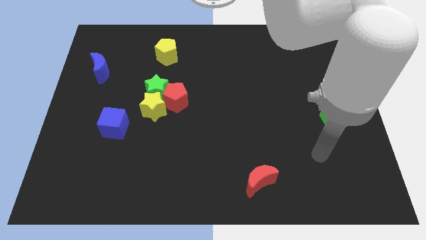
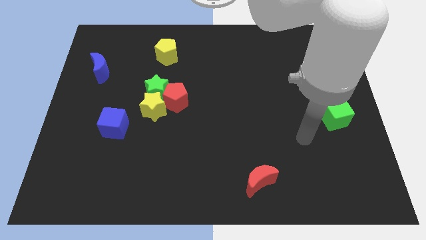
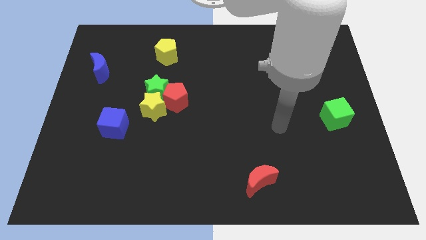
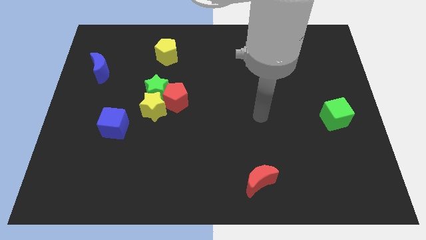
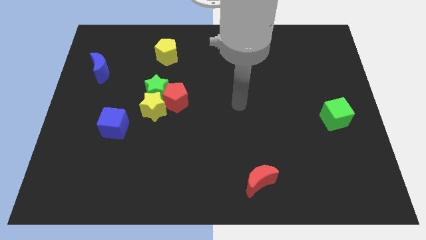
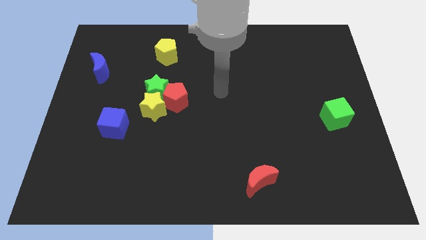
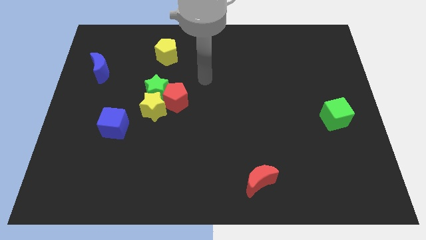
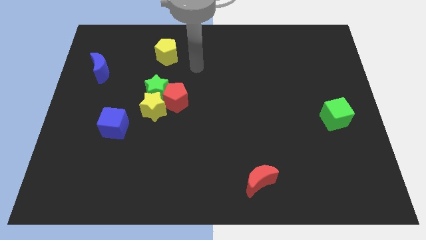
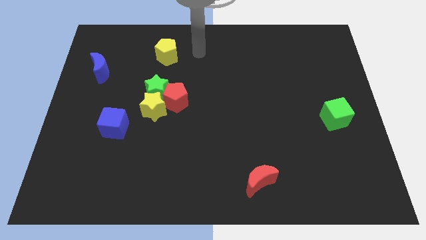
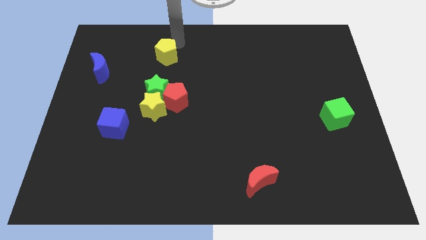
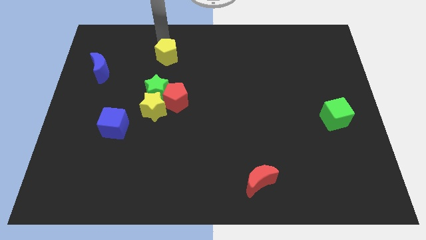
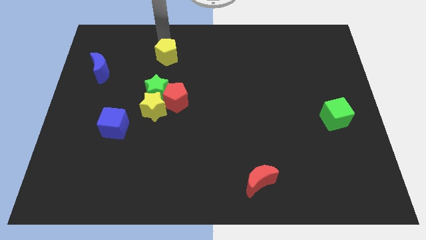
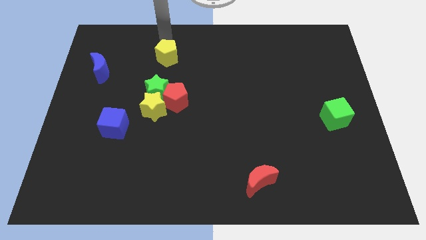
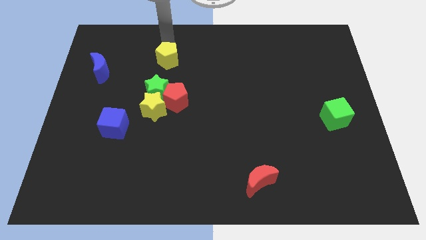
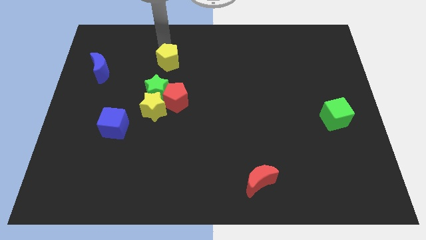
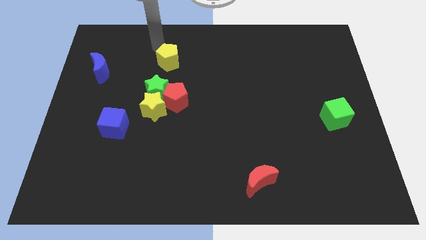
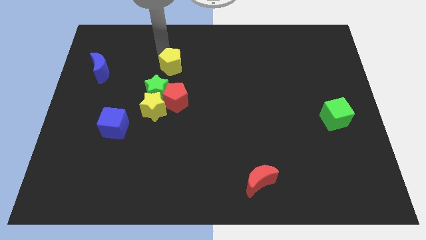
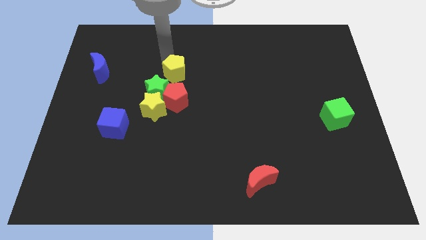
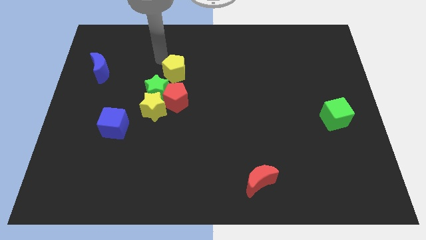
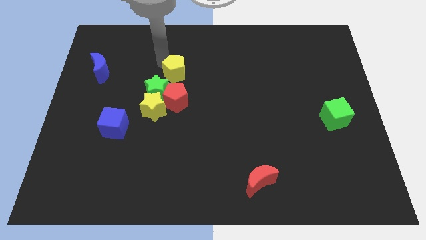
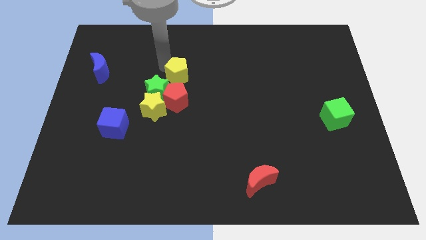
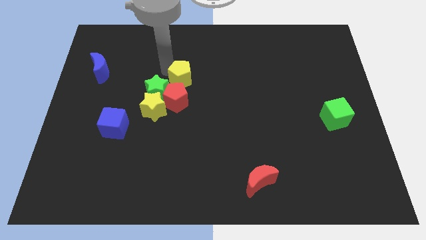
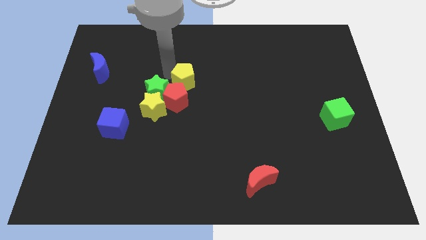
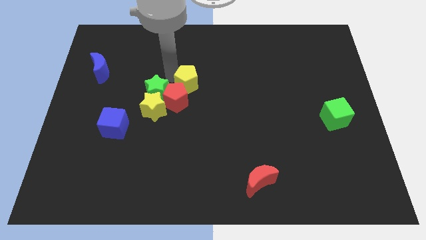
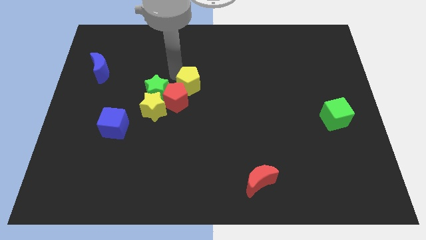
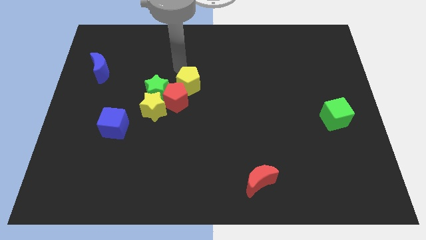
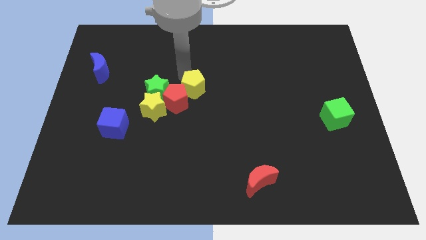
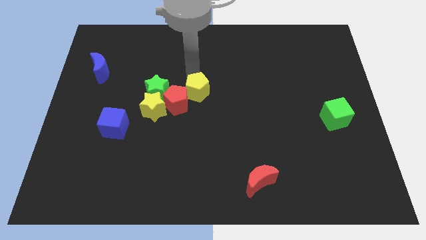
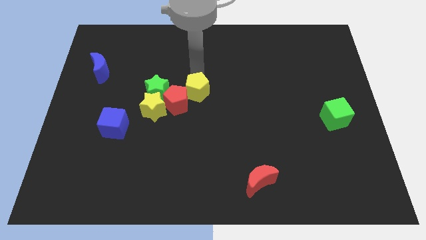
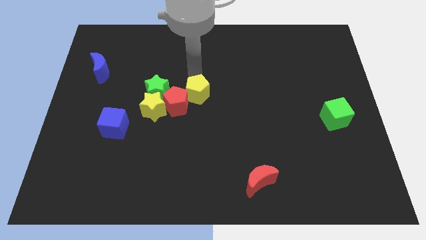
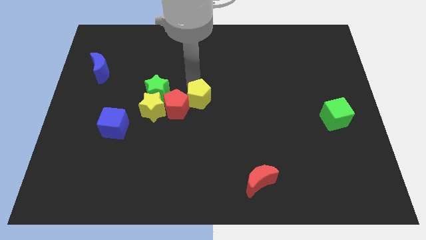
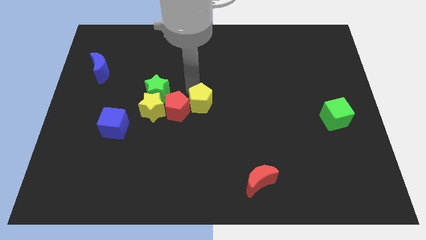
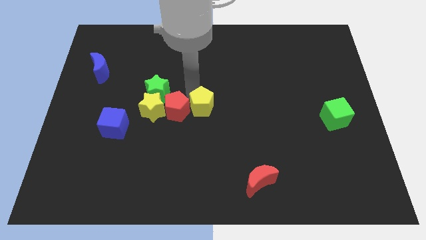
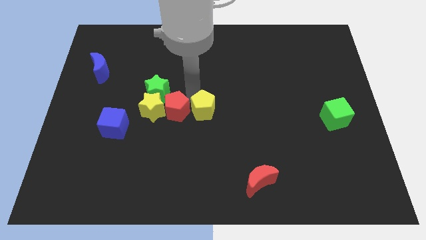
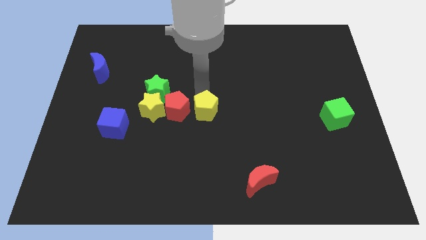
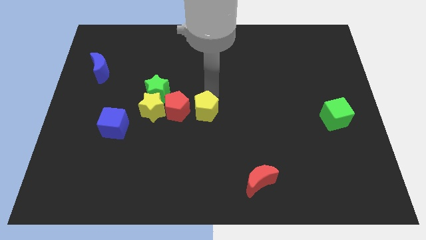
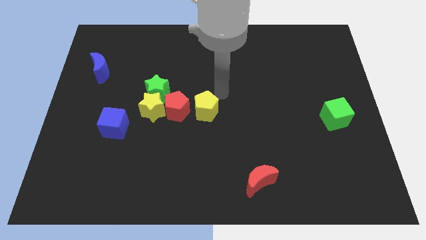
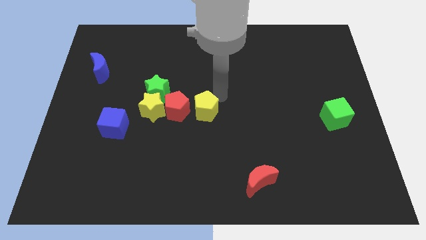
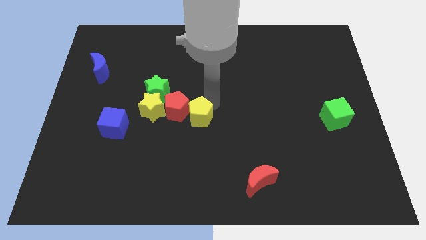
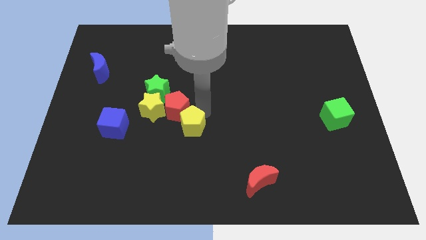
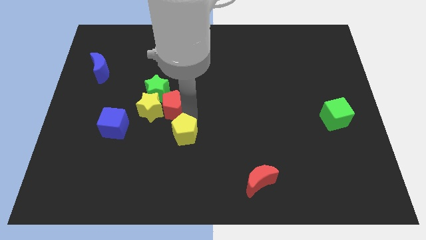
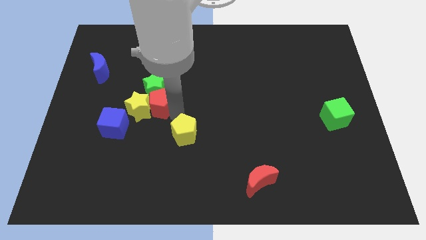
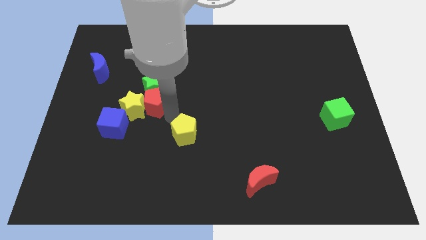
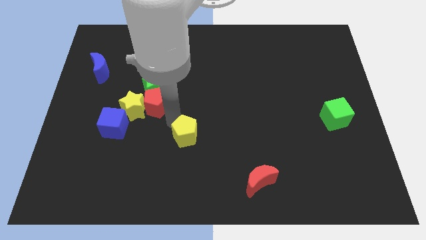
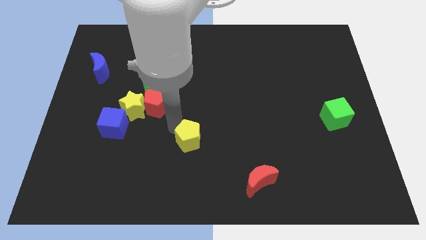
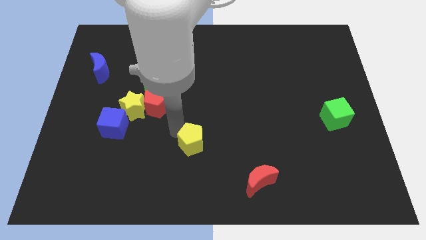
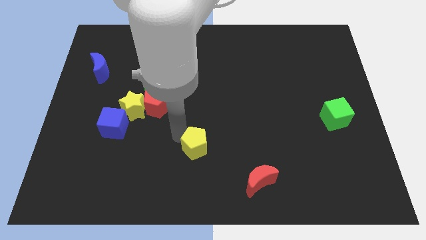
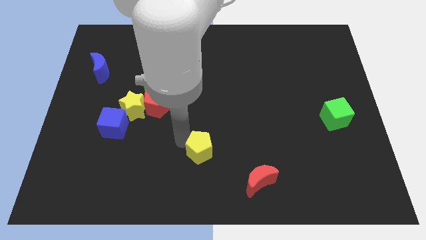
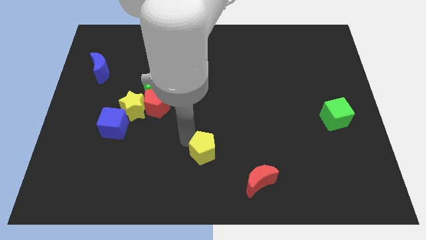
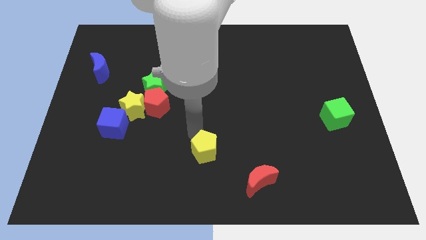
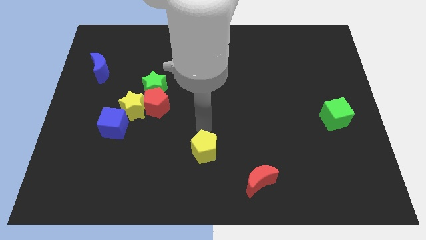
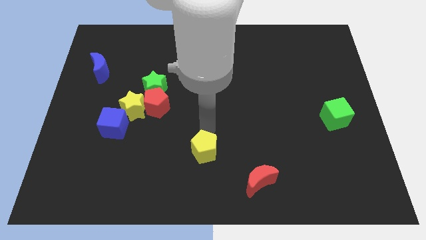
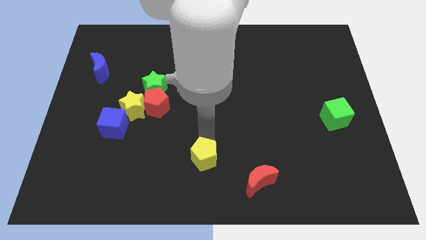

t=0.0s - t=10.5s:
slide the yellow pentagon to the bottom side

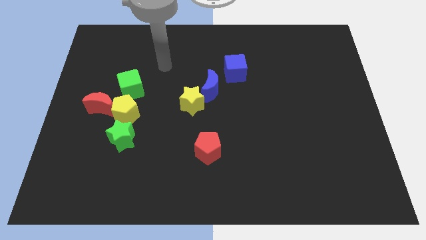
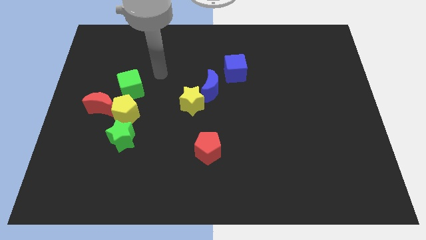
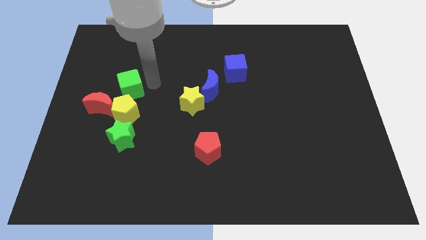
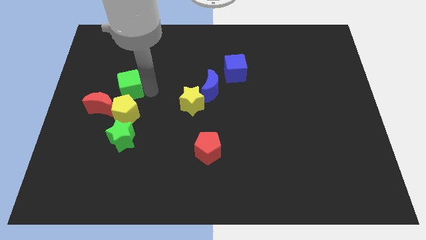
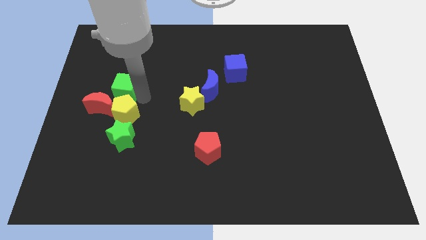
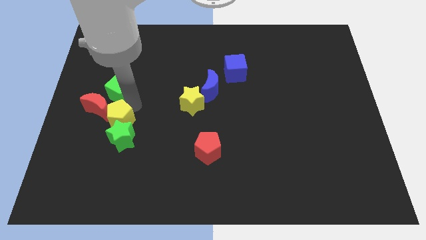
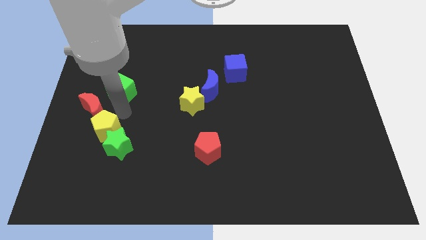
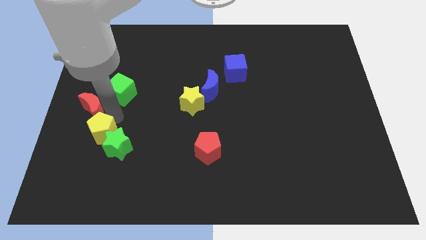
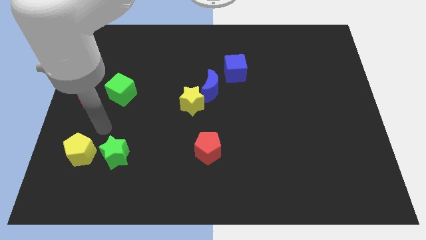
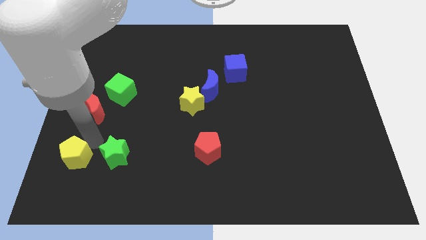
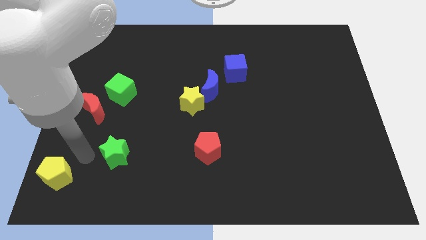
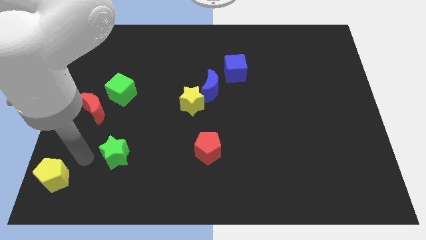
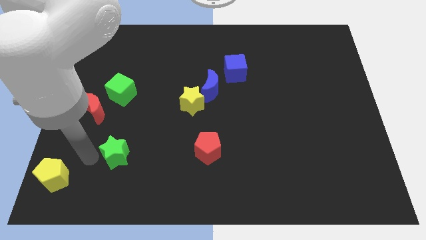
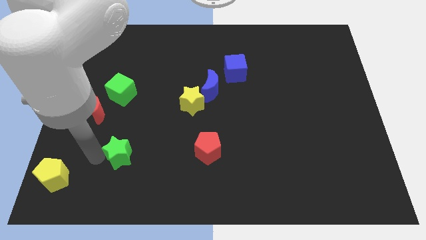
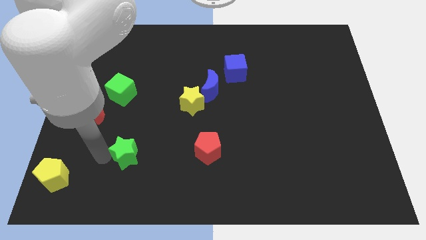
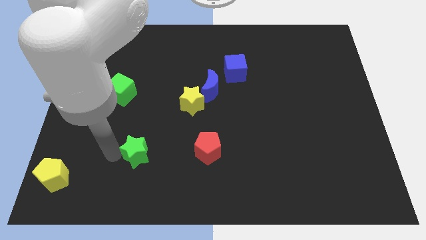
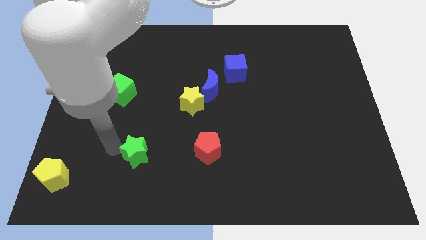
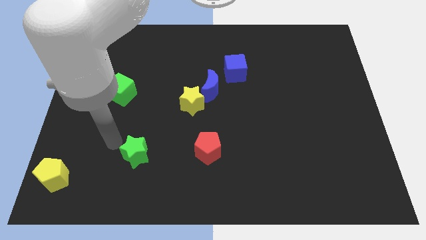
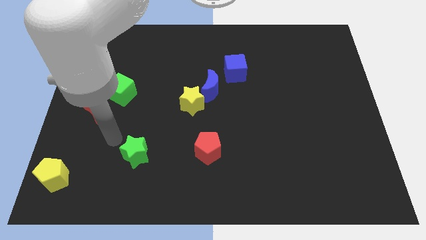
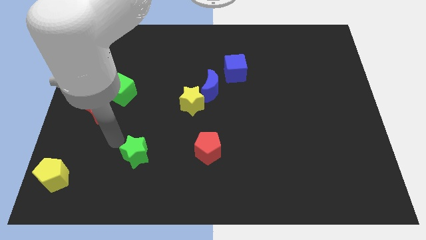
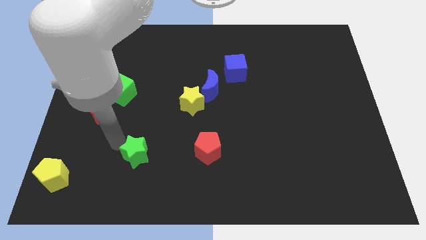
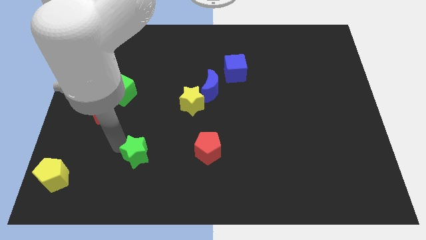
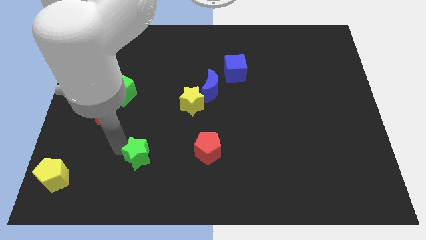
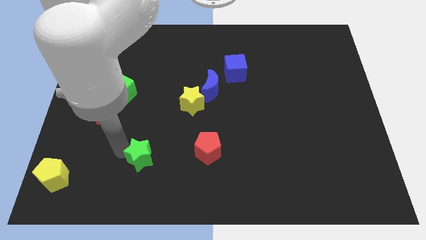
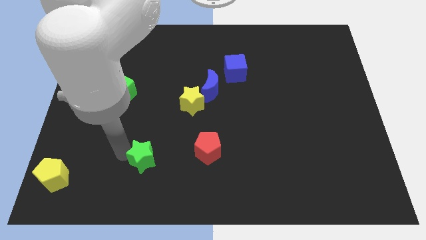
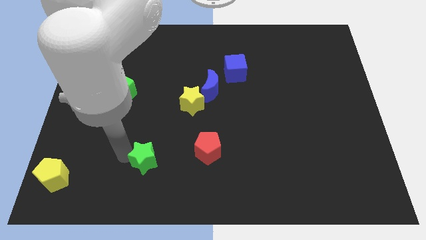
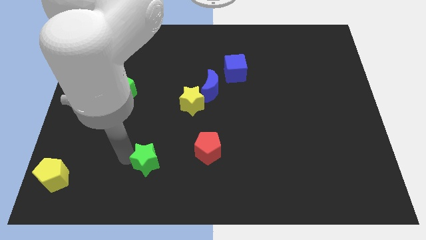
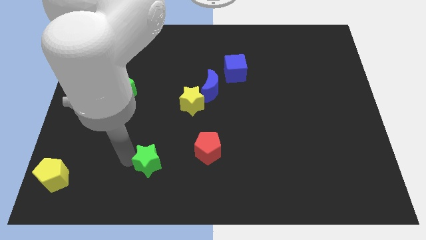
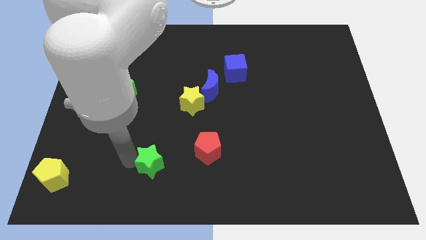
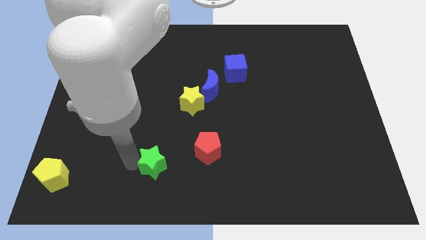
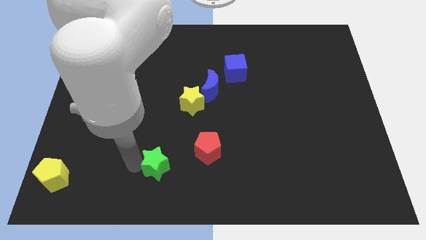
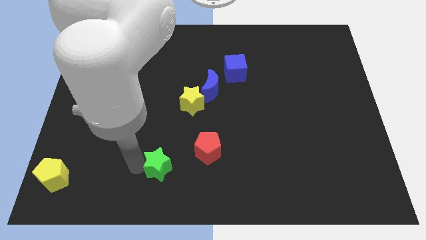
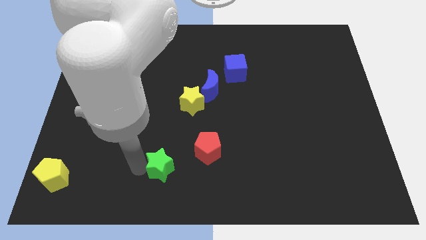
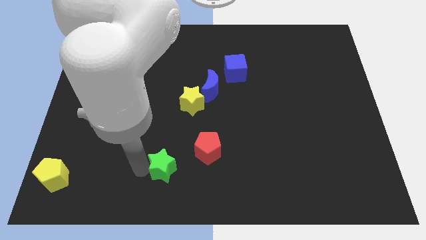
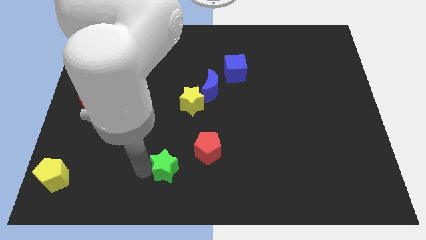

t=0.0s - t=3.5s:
move the green star to the bottom
